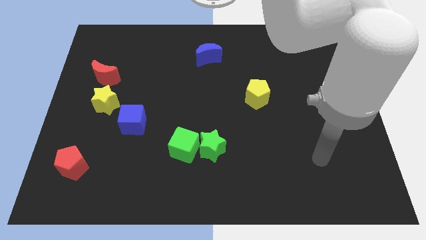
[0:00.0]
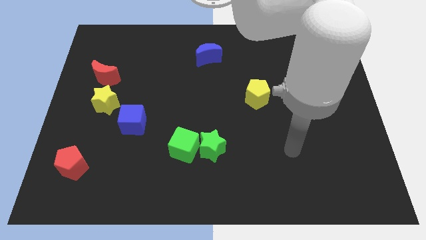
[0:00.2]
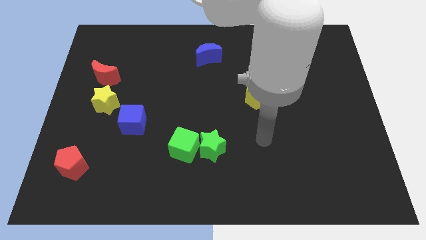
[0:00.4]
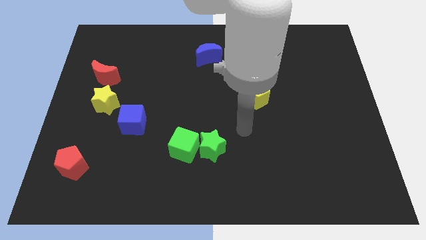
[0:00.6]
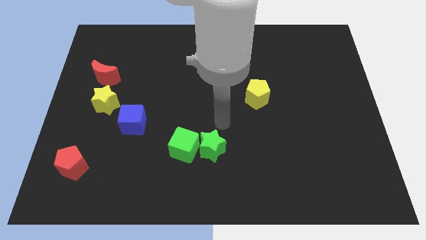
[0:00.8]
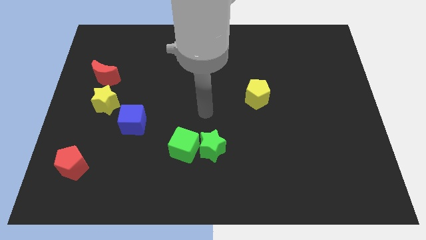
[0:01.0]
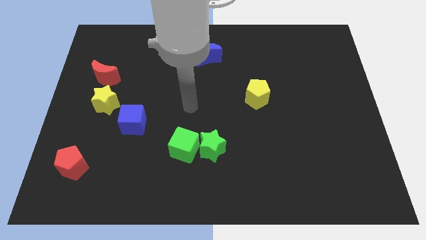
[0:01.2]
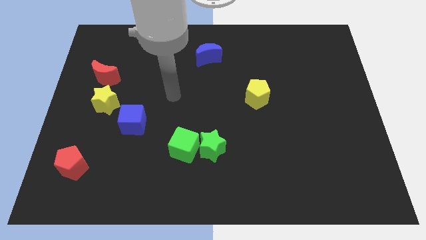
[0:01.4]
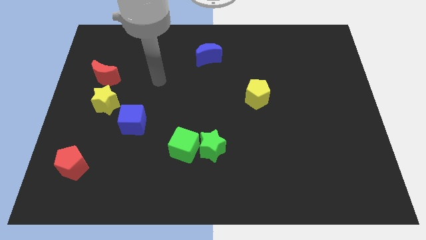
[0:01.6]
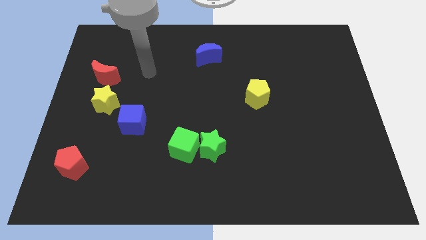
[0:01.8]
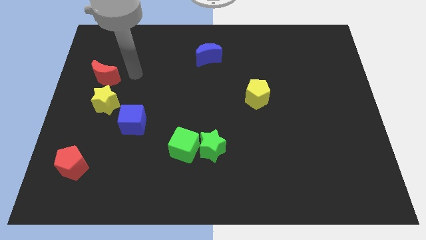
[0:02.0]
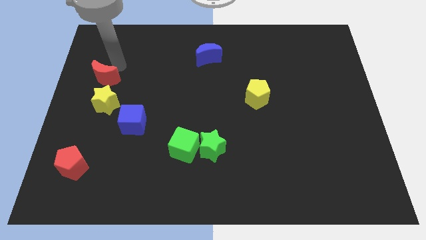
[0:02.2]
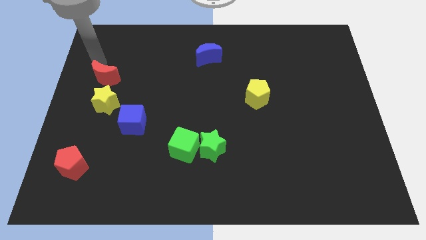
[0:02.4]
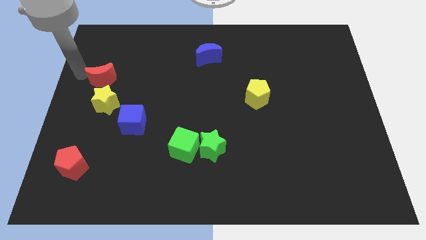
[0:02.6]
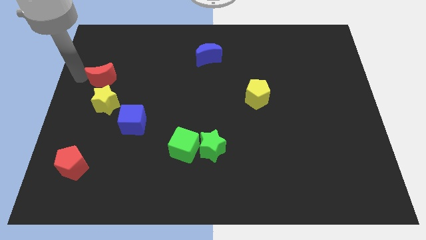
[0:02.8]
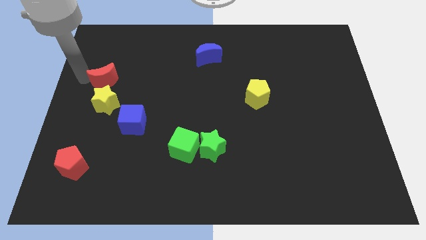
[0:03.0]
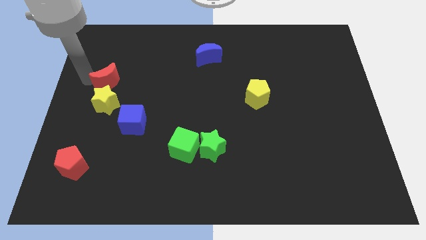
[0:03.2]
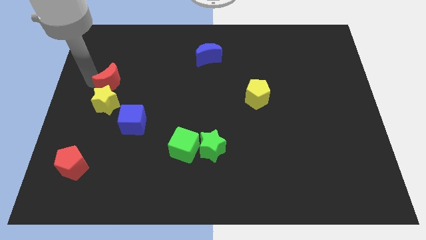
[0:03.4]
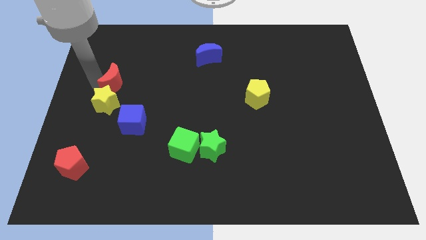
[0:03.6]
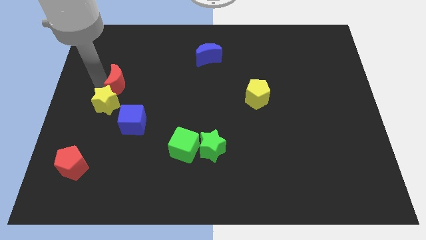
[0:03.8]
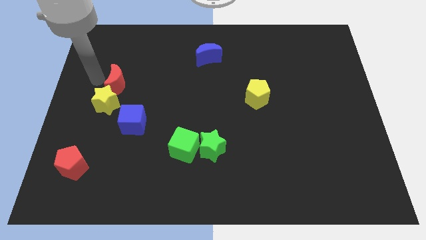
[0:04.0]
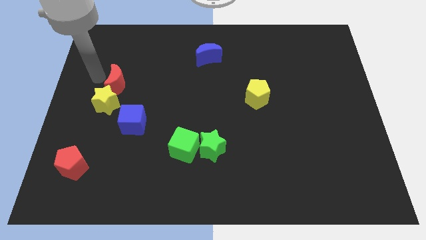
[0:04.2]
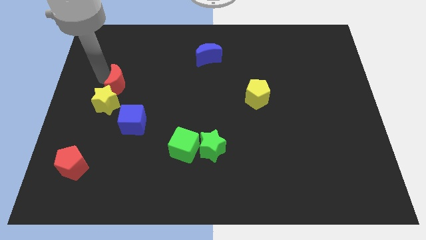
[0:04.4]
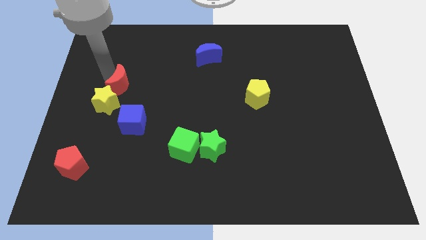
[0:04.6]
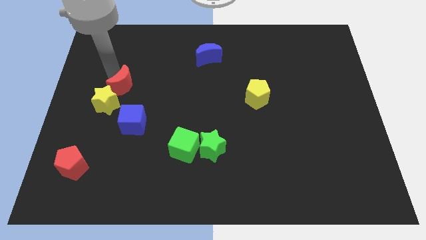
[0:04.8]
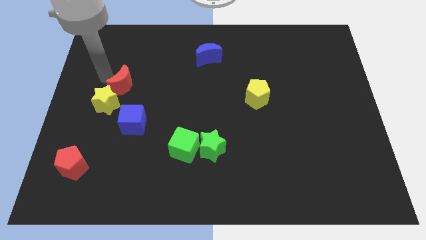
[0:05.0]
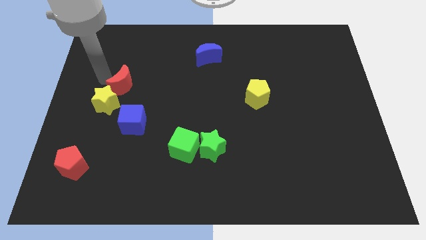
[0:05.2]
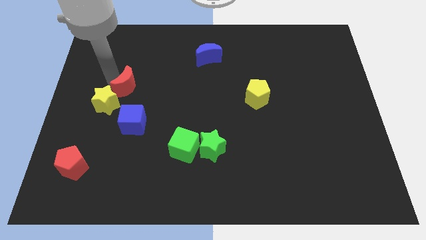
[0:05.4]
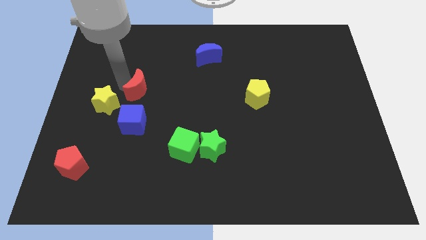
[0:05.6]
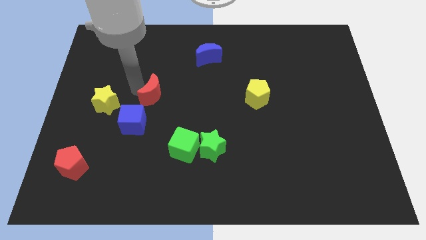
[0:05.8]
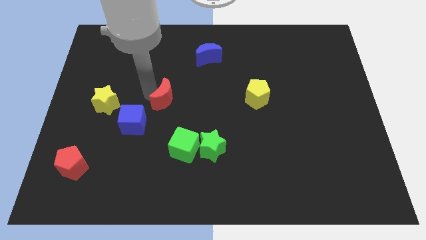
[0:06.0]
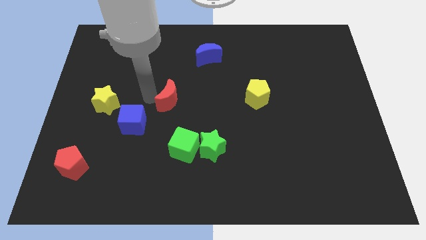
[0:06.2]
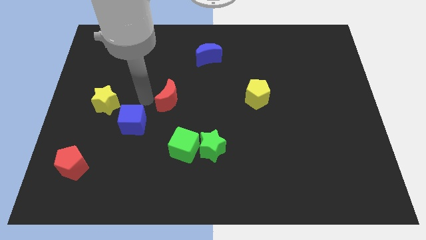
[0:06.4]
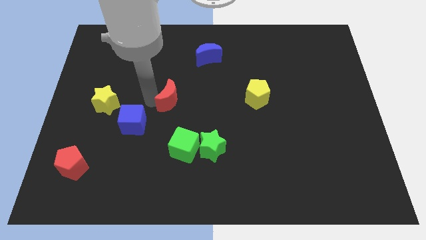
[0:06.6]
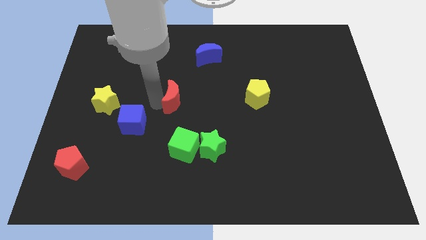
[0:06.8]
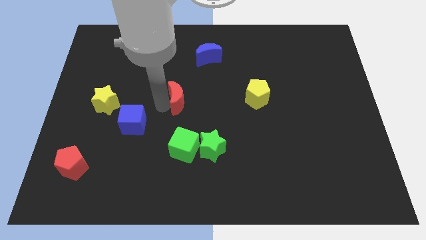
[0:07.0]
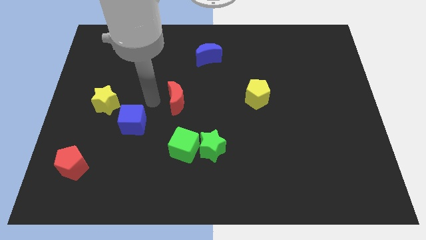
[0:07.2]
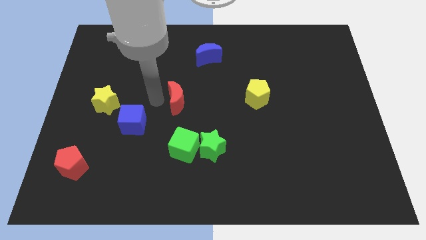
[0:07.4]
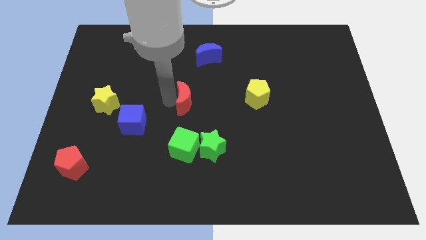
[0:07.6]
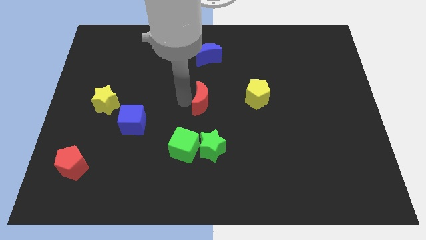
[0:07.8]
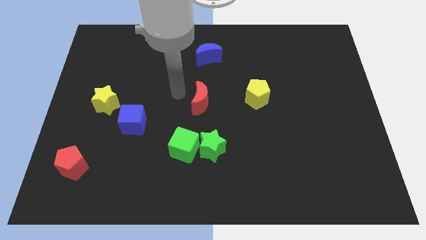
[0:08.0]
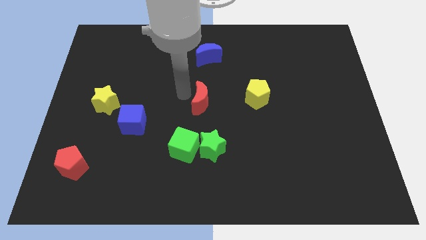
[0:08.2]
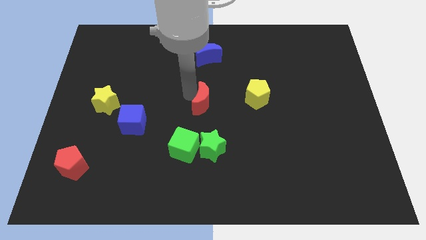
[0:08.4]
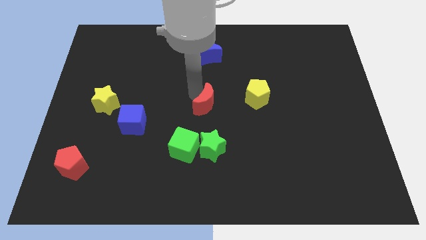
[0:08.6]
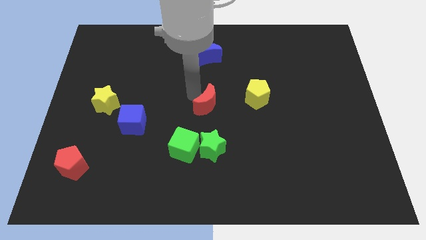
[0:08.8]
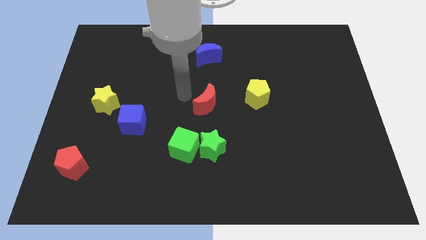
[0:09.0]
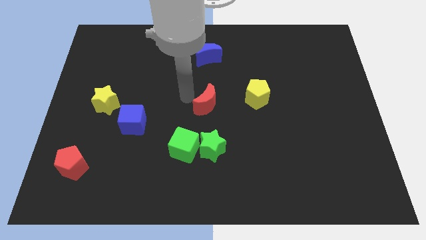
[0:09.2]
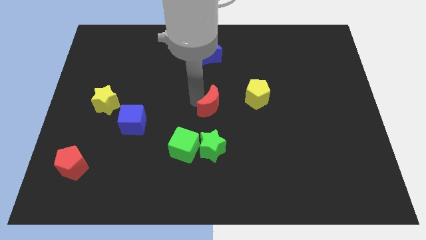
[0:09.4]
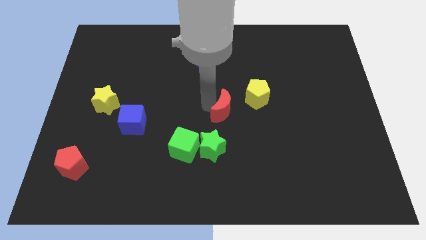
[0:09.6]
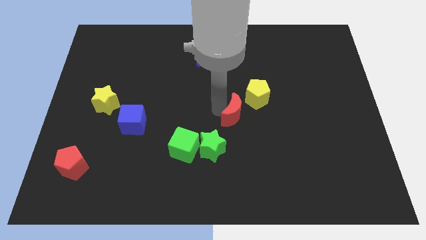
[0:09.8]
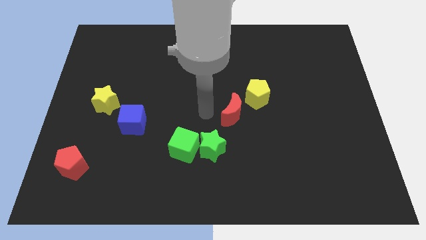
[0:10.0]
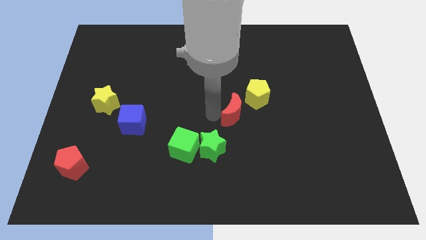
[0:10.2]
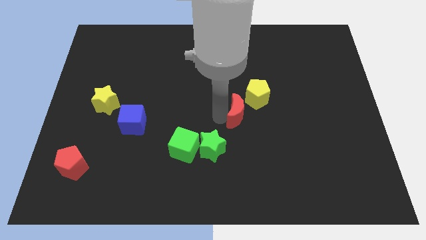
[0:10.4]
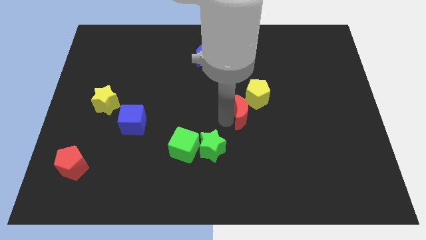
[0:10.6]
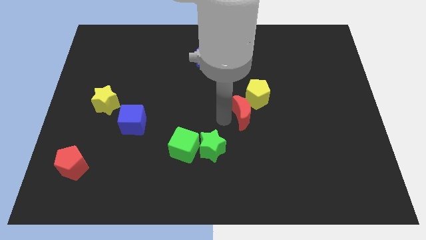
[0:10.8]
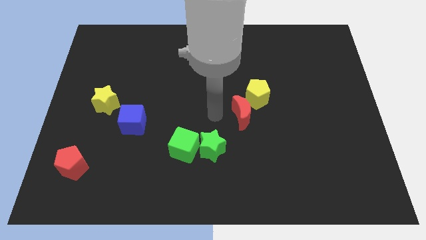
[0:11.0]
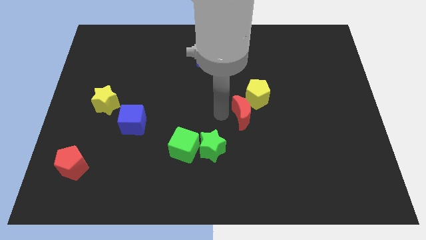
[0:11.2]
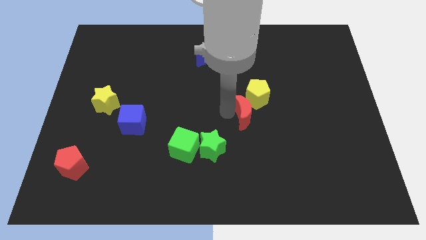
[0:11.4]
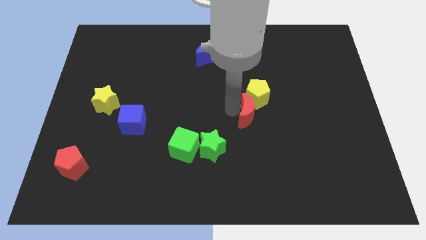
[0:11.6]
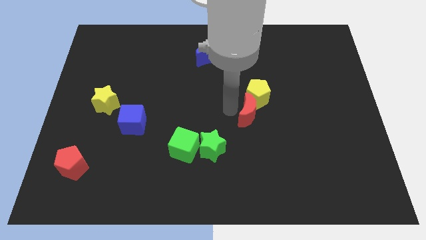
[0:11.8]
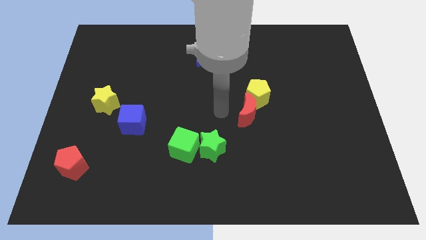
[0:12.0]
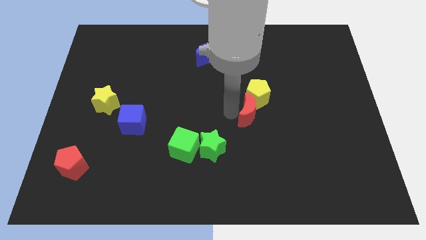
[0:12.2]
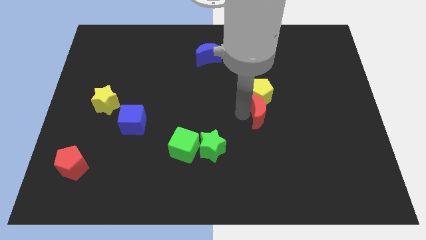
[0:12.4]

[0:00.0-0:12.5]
move the red moon to the bottom right of the yellow pentagon
